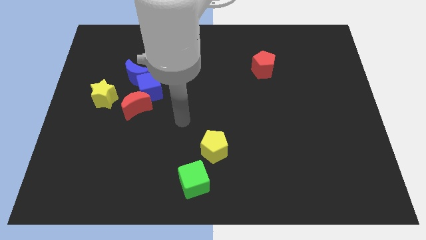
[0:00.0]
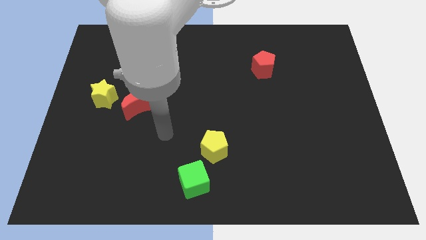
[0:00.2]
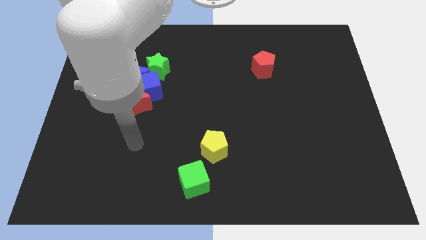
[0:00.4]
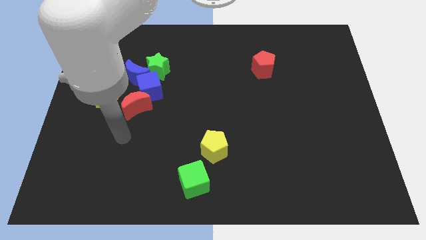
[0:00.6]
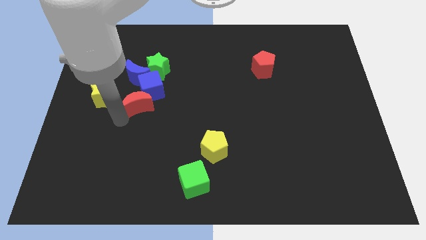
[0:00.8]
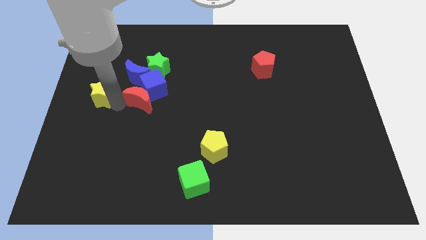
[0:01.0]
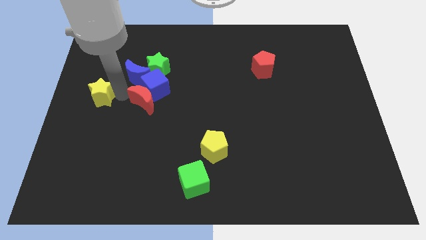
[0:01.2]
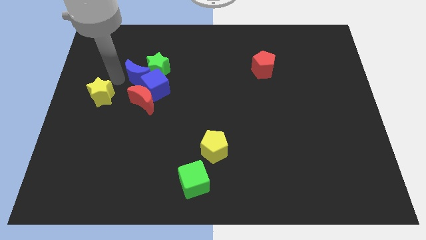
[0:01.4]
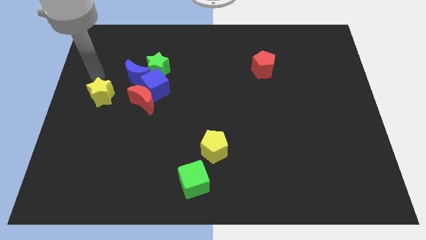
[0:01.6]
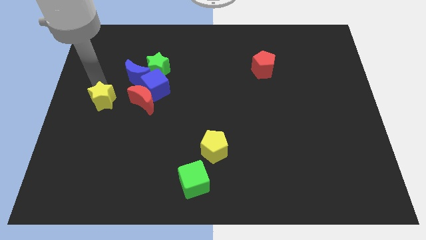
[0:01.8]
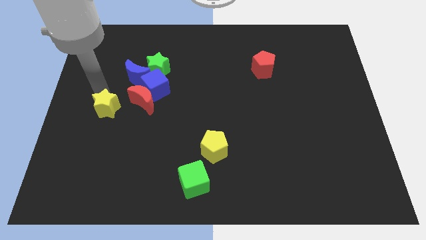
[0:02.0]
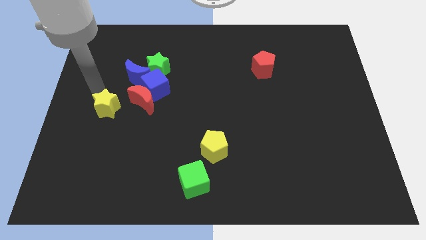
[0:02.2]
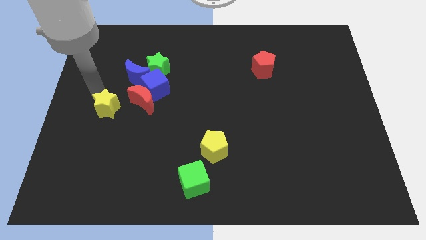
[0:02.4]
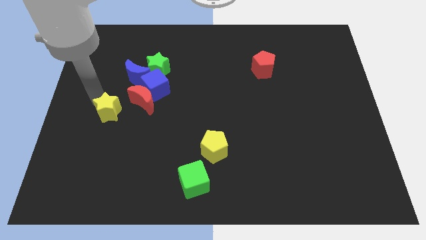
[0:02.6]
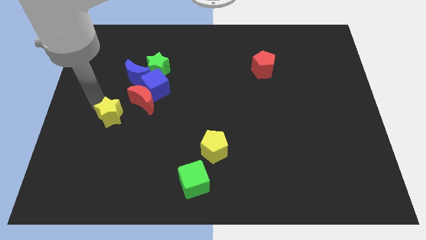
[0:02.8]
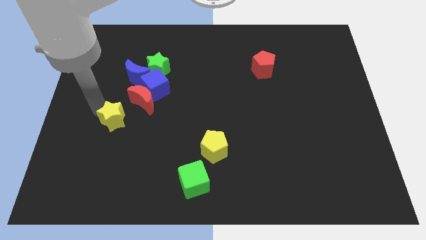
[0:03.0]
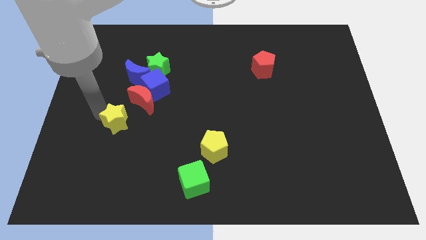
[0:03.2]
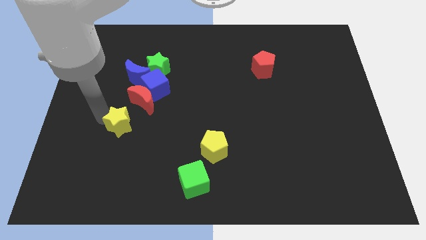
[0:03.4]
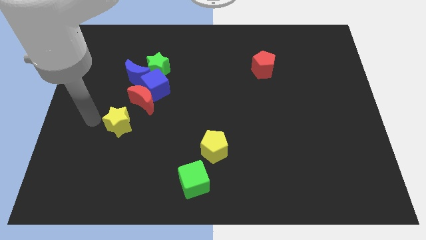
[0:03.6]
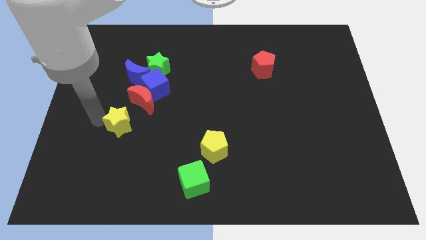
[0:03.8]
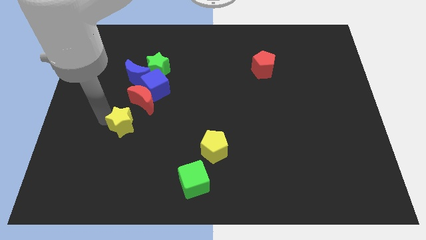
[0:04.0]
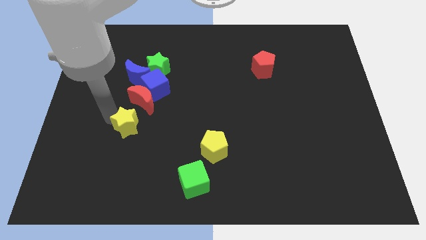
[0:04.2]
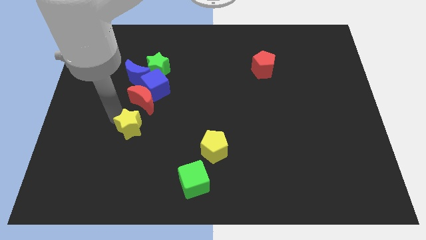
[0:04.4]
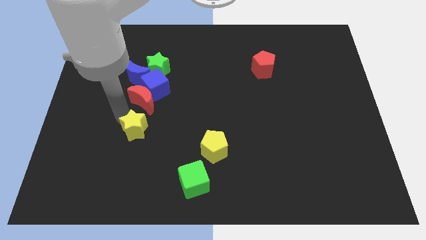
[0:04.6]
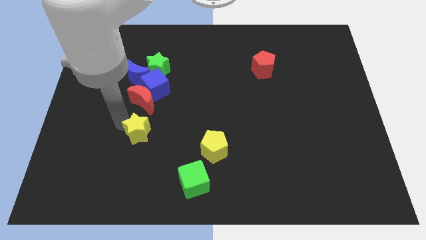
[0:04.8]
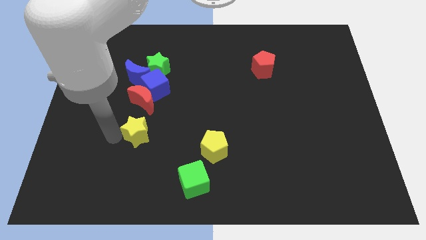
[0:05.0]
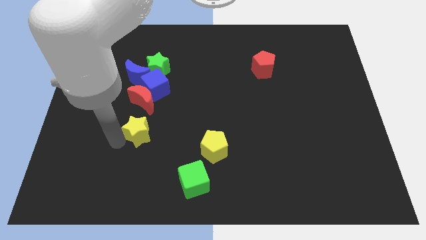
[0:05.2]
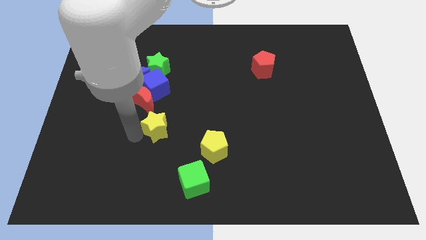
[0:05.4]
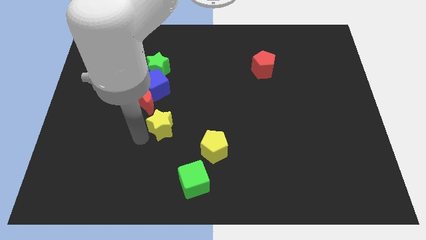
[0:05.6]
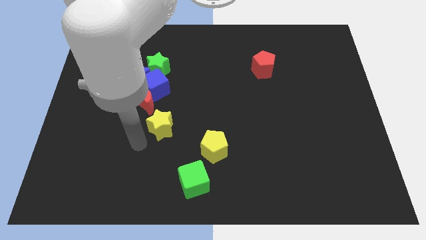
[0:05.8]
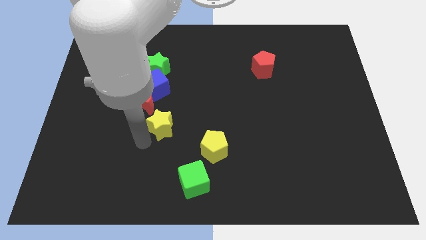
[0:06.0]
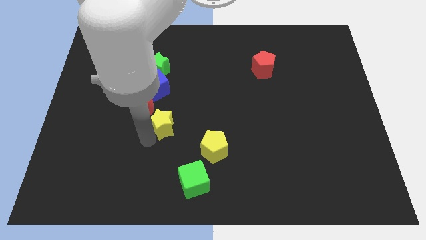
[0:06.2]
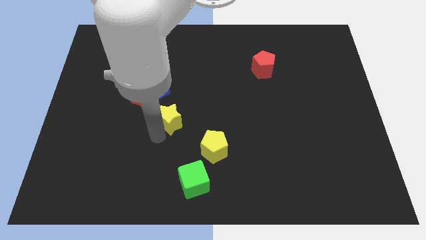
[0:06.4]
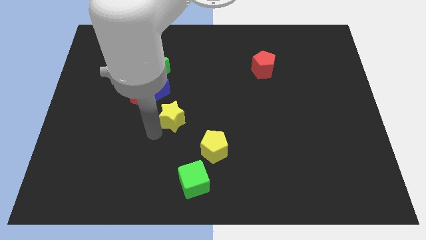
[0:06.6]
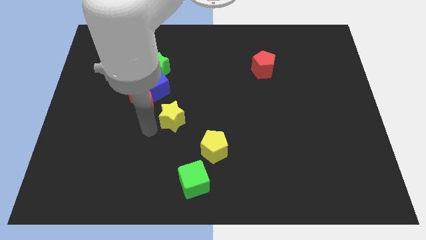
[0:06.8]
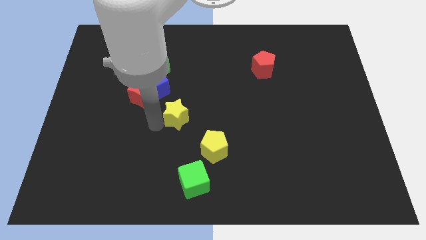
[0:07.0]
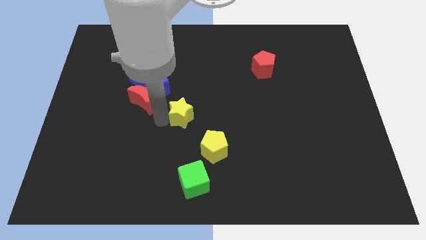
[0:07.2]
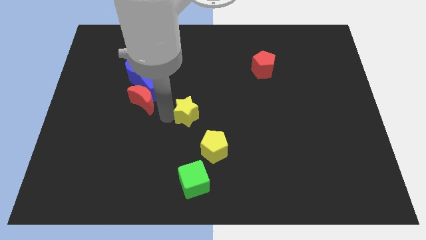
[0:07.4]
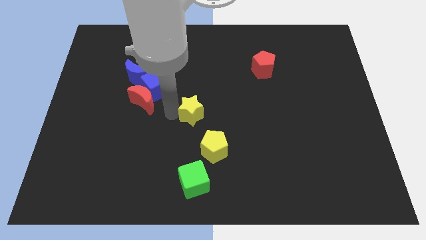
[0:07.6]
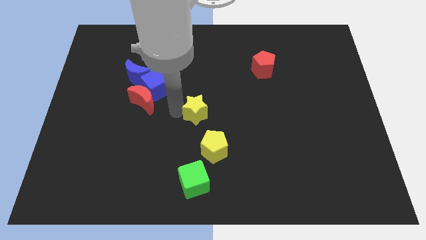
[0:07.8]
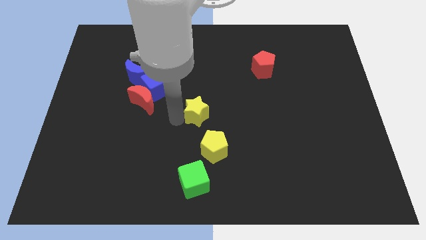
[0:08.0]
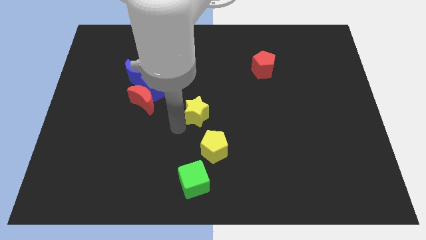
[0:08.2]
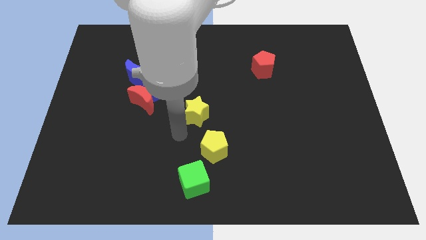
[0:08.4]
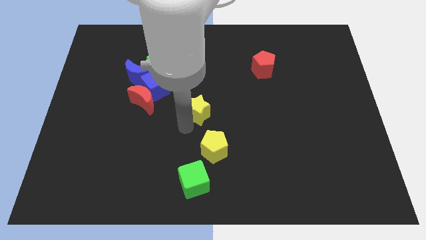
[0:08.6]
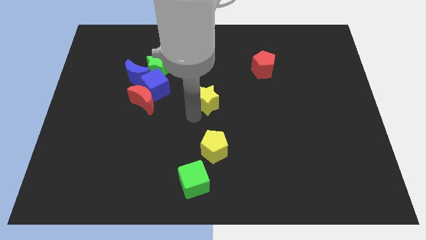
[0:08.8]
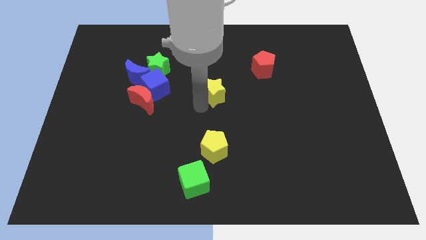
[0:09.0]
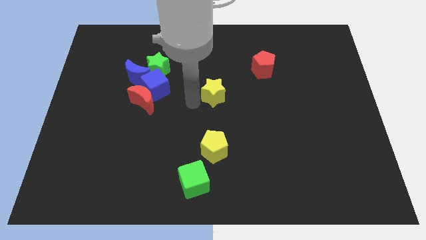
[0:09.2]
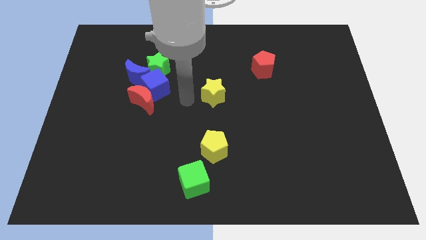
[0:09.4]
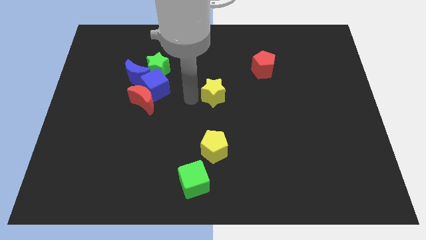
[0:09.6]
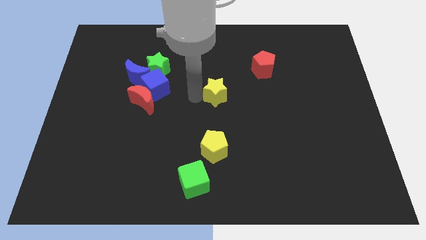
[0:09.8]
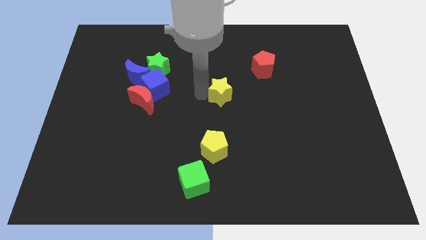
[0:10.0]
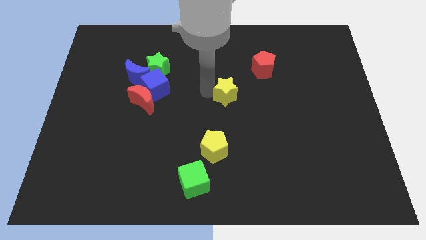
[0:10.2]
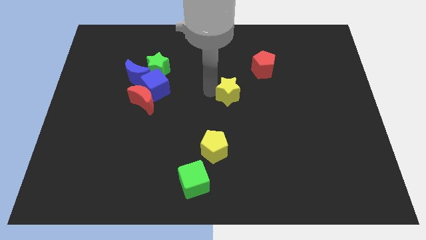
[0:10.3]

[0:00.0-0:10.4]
slide the yellow star to the bottom left side of the red pentagon

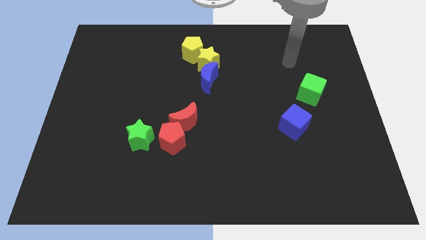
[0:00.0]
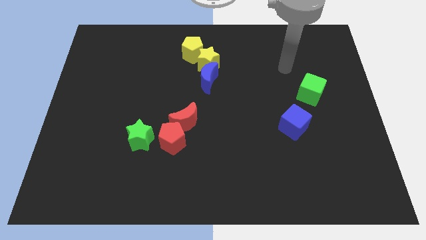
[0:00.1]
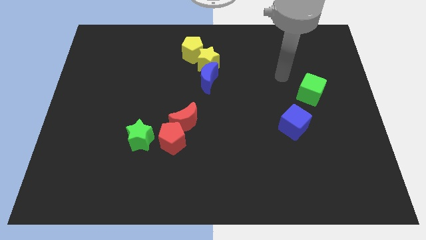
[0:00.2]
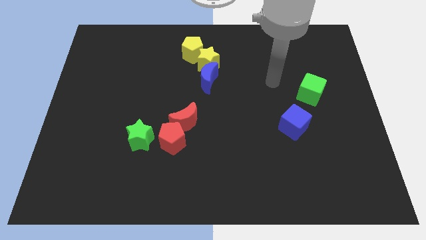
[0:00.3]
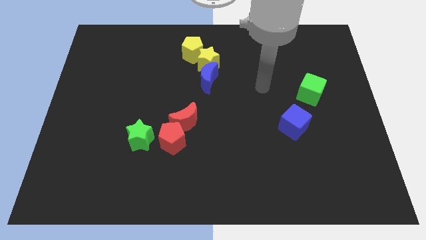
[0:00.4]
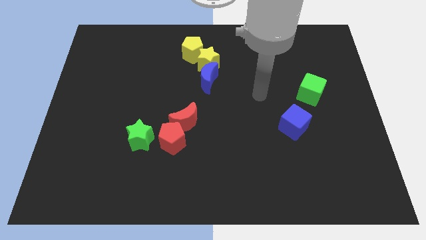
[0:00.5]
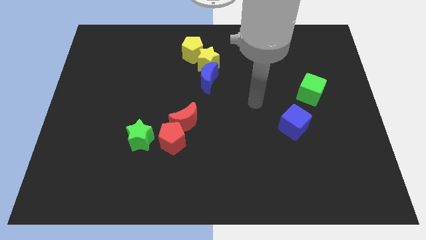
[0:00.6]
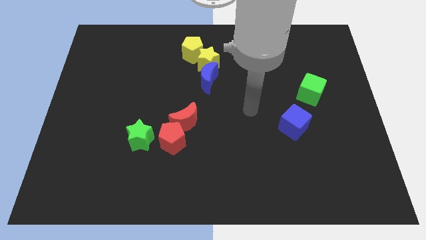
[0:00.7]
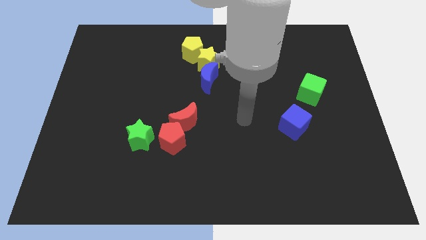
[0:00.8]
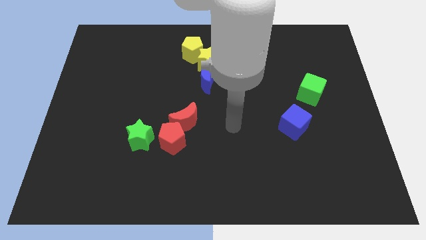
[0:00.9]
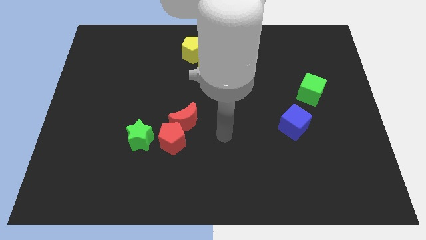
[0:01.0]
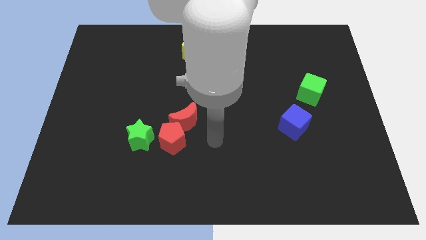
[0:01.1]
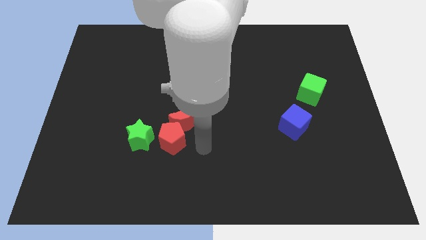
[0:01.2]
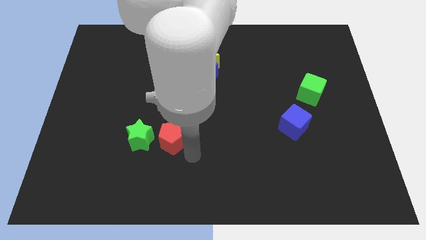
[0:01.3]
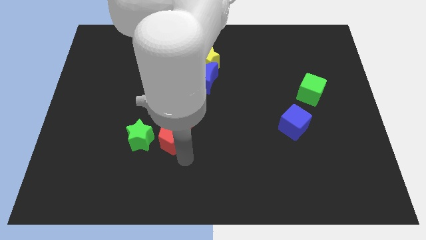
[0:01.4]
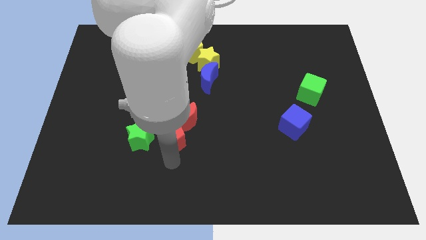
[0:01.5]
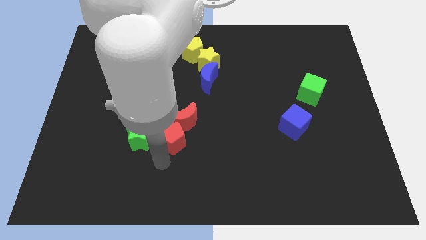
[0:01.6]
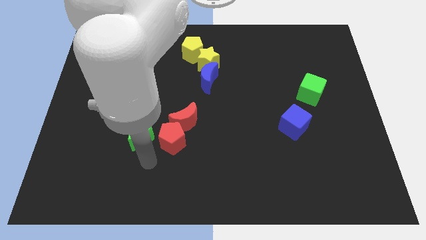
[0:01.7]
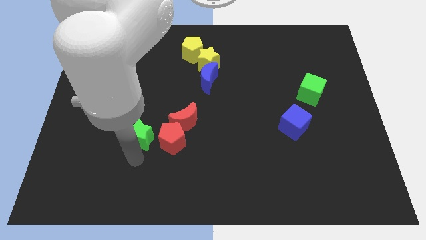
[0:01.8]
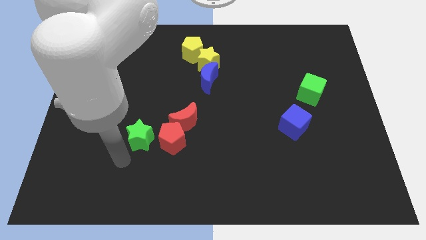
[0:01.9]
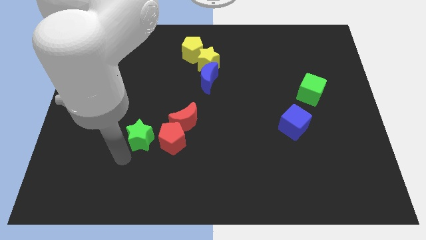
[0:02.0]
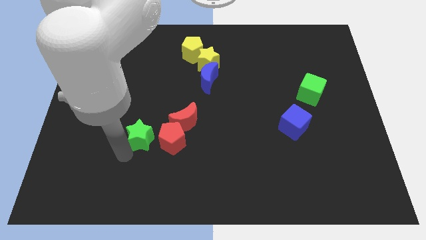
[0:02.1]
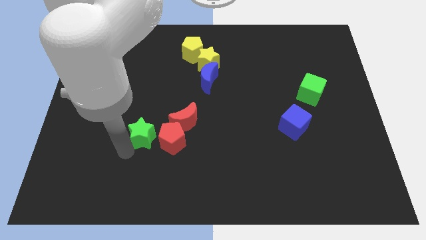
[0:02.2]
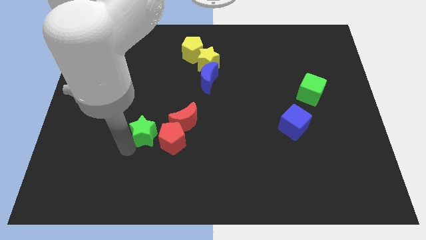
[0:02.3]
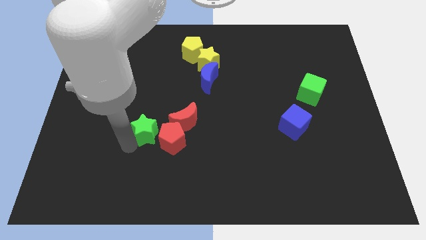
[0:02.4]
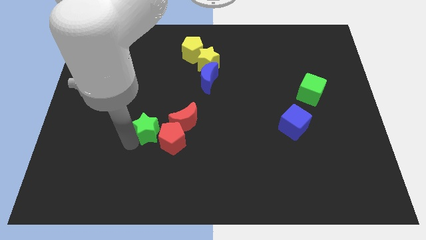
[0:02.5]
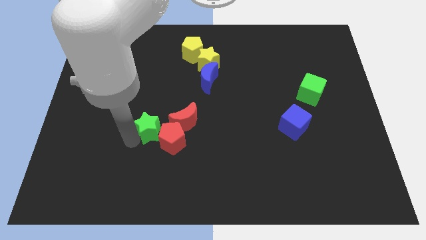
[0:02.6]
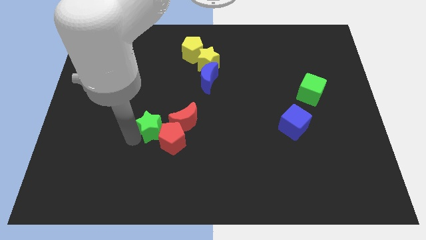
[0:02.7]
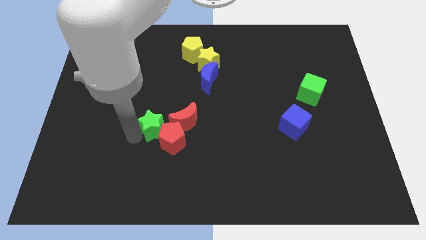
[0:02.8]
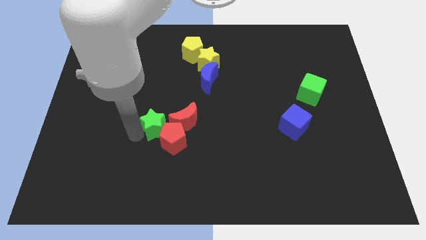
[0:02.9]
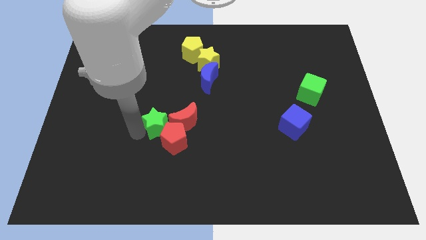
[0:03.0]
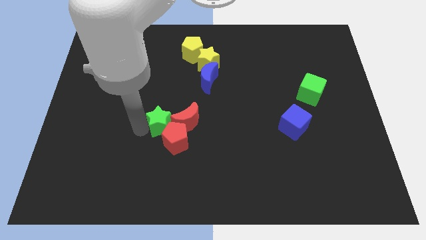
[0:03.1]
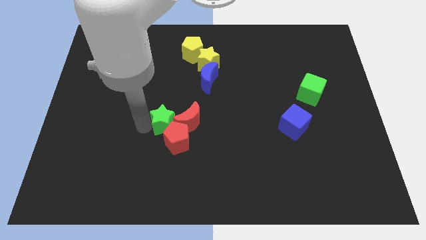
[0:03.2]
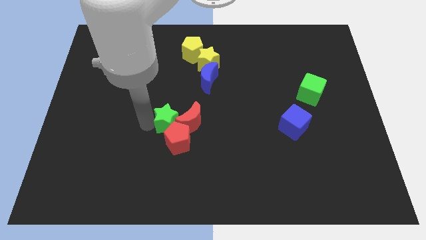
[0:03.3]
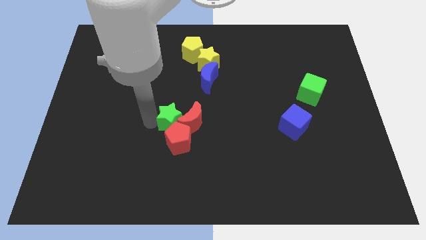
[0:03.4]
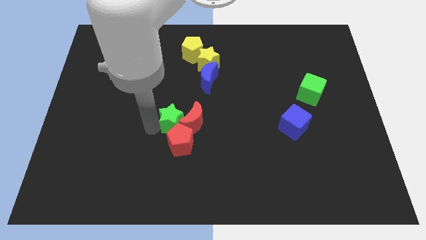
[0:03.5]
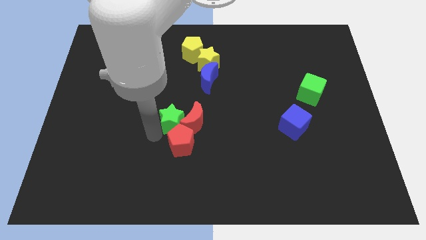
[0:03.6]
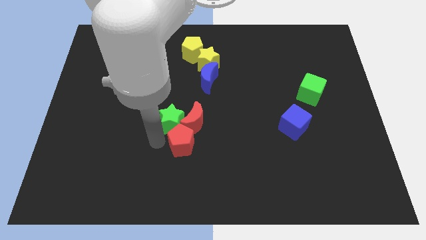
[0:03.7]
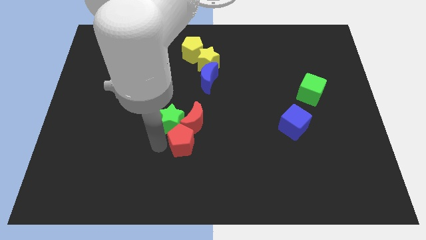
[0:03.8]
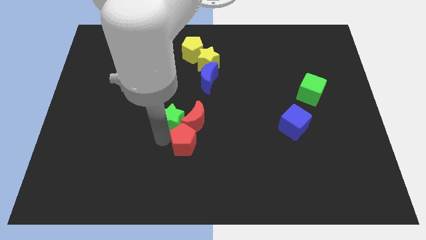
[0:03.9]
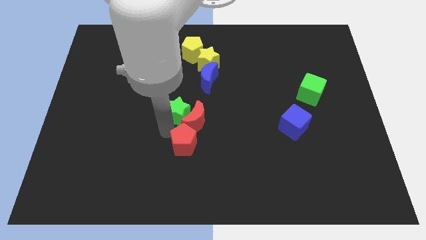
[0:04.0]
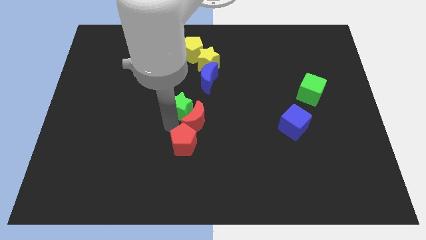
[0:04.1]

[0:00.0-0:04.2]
slide the green star to the bottom left side of the blue moon
